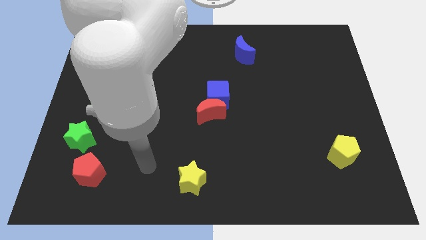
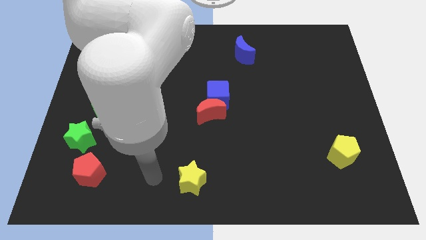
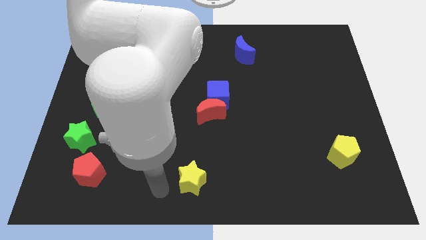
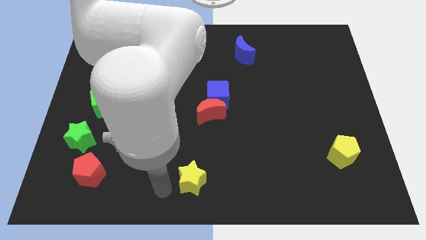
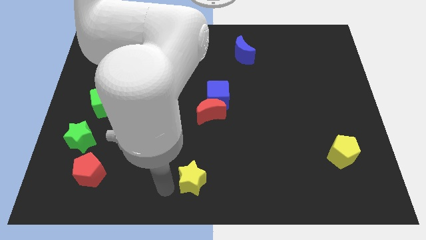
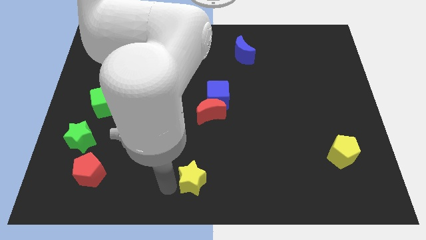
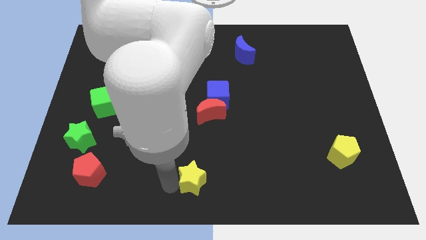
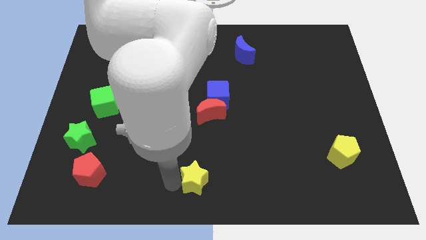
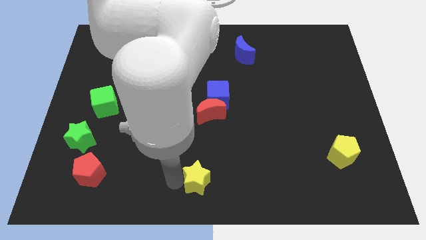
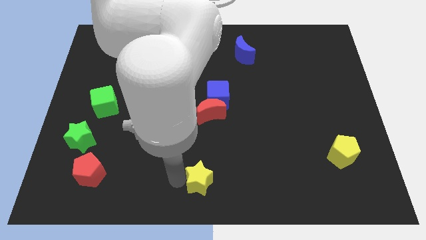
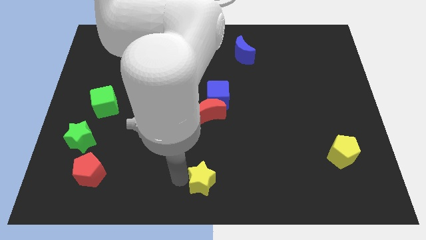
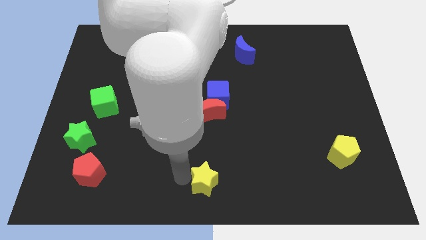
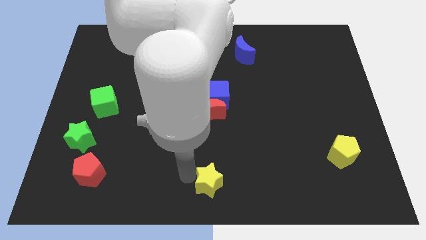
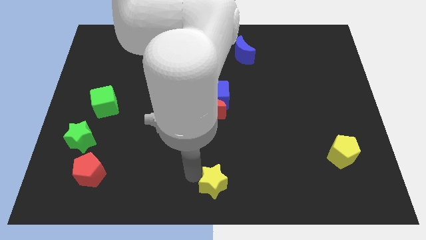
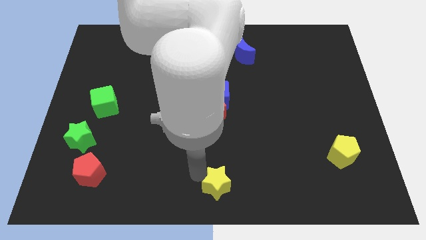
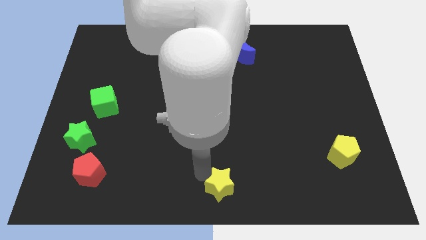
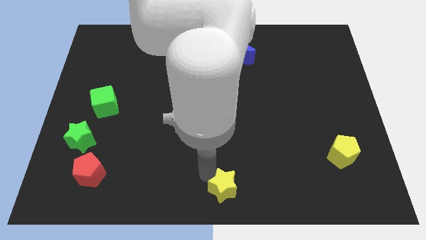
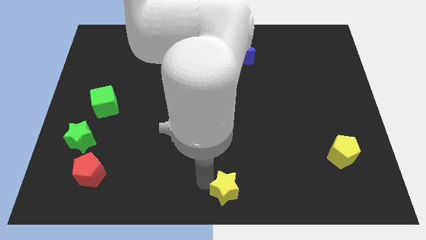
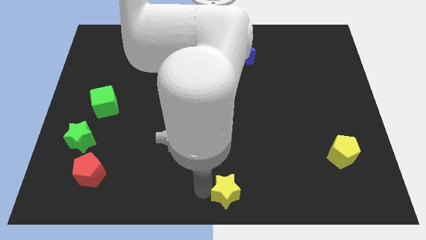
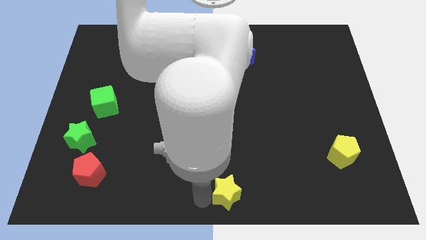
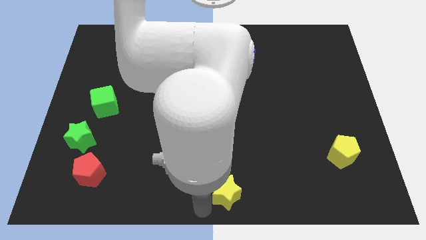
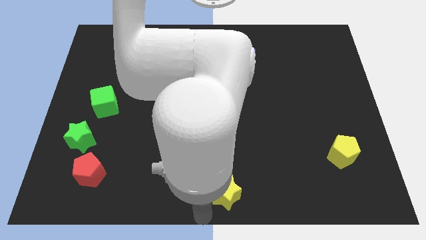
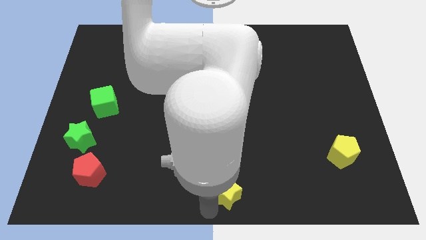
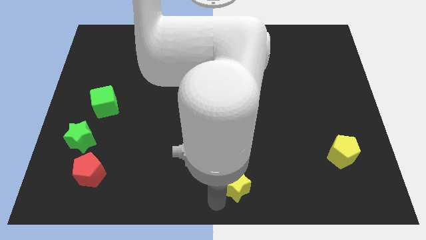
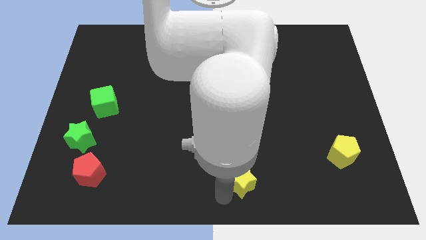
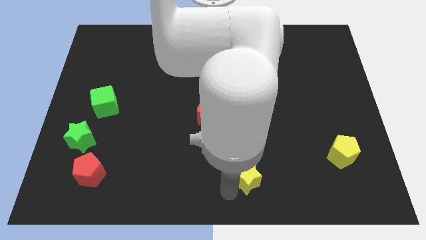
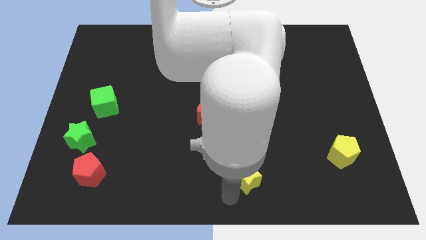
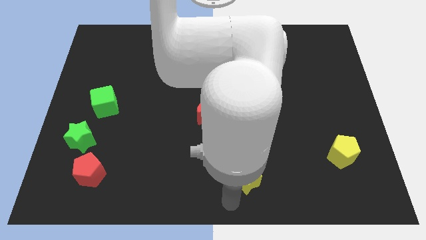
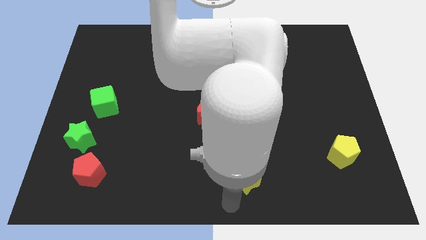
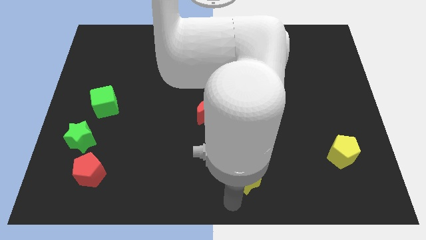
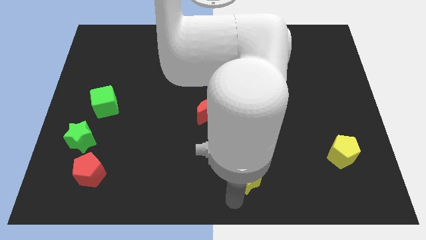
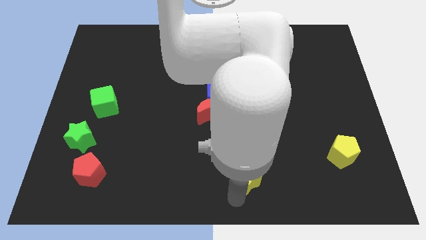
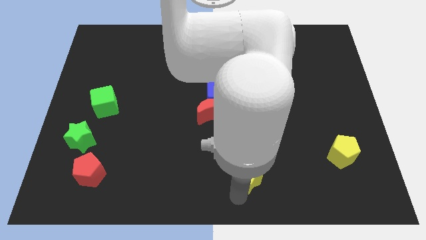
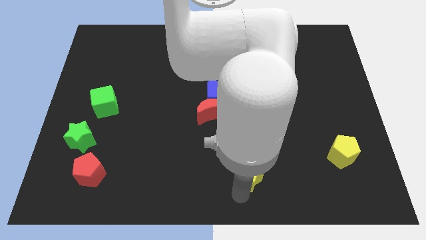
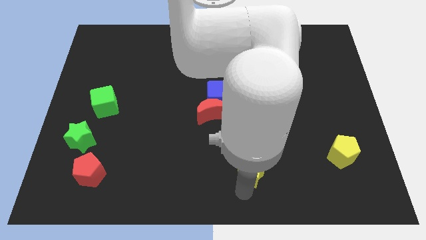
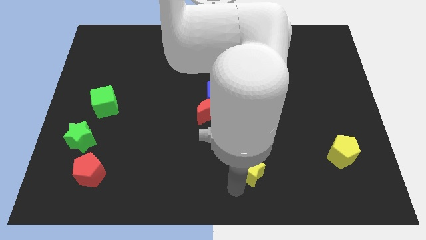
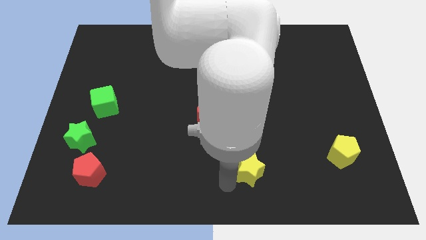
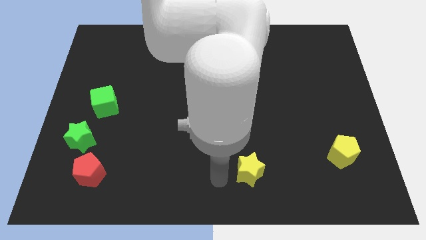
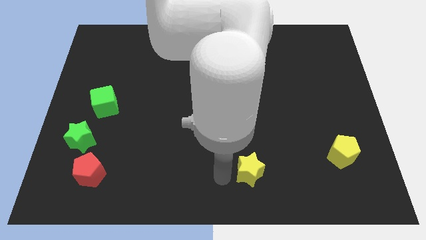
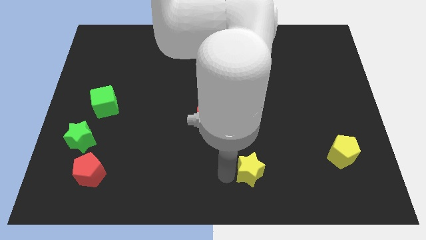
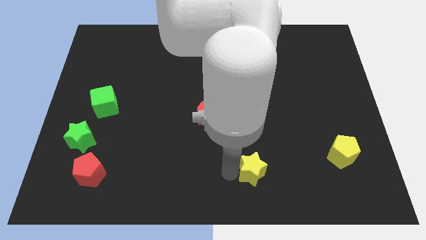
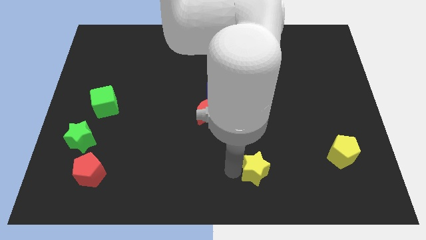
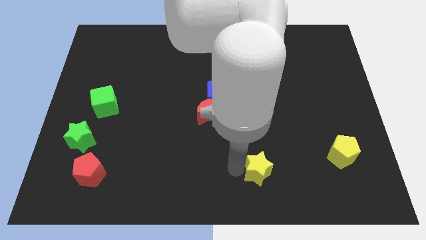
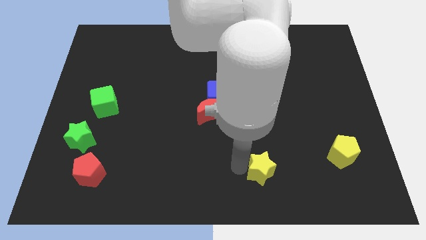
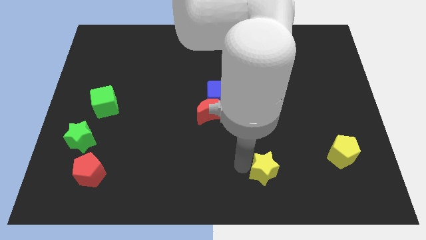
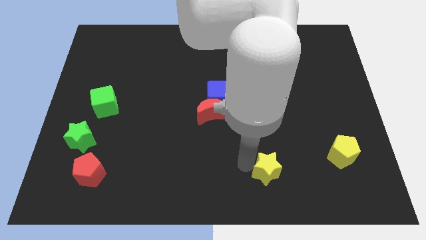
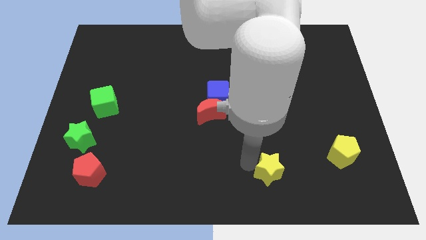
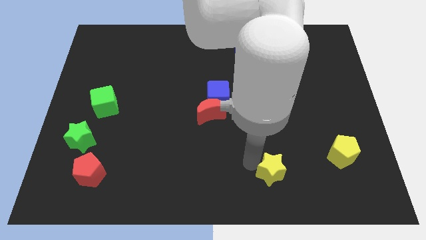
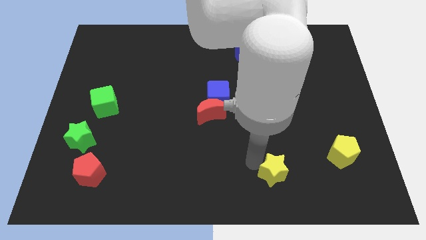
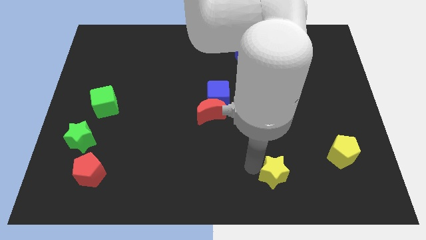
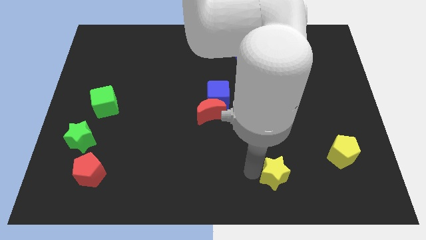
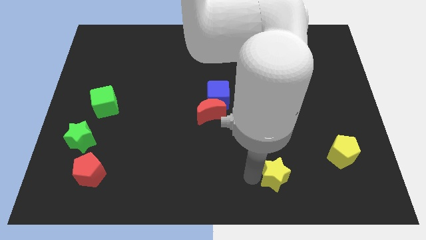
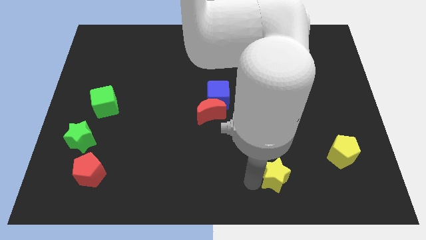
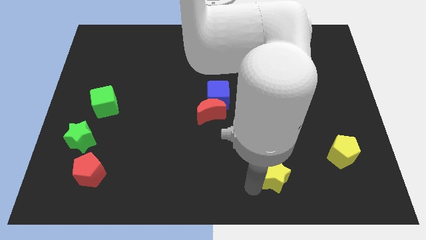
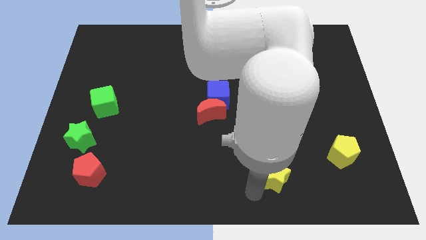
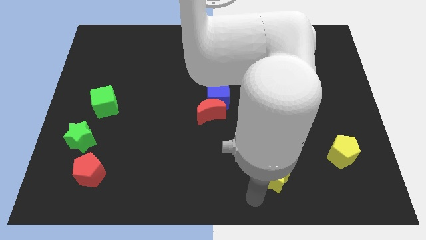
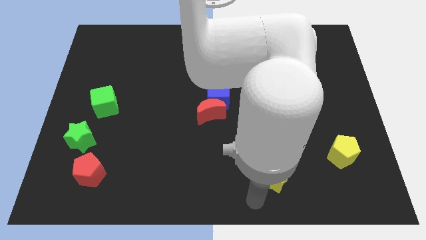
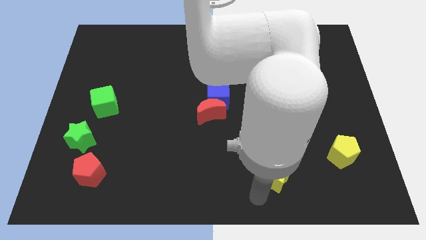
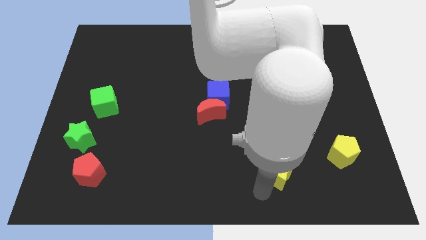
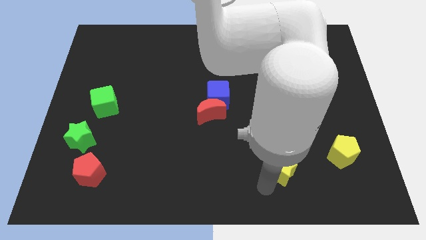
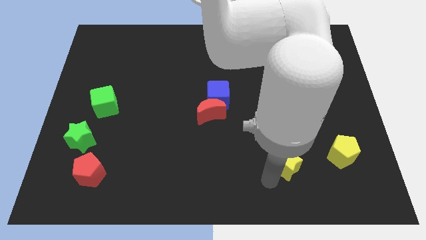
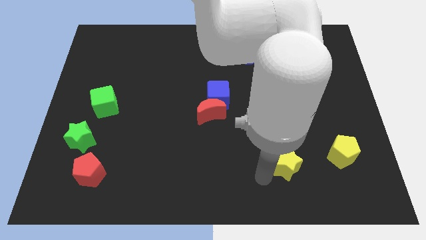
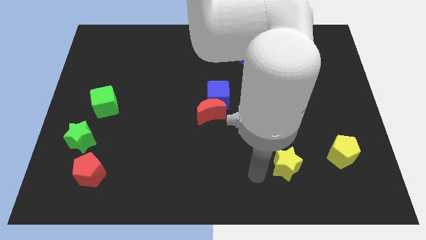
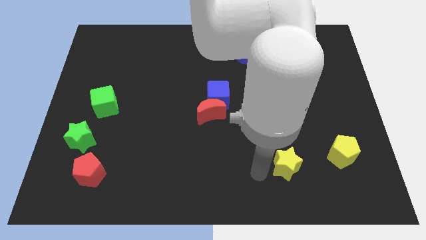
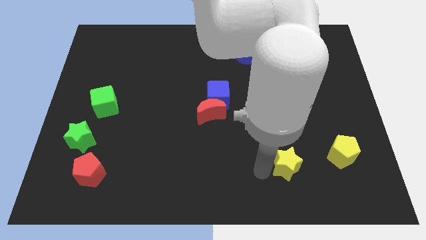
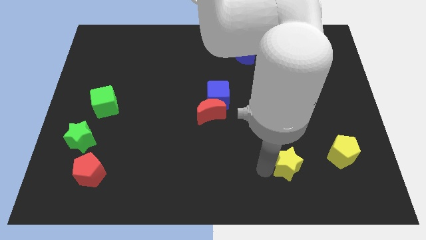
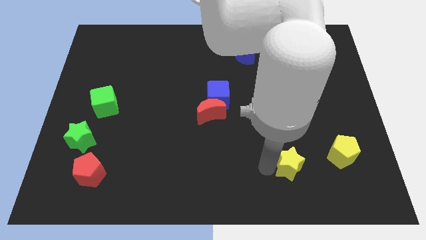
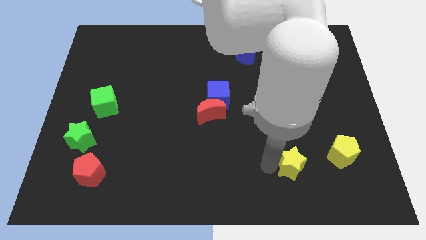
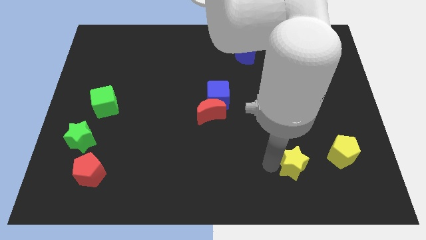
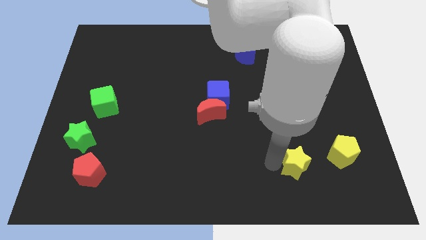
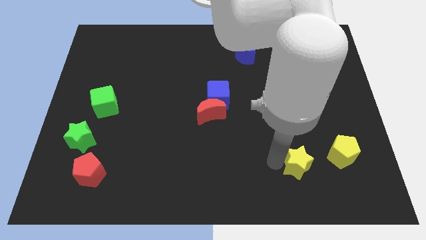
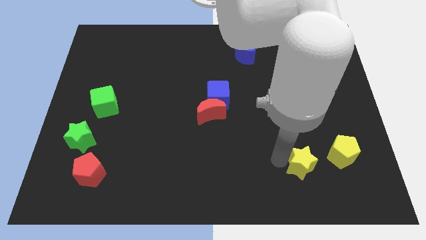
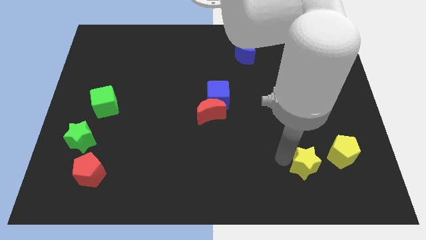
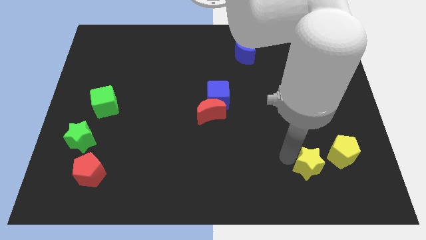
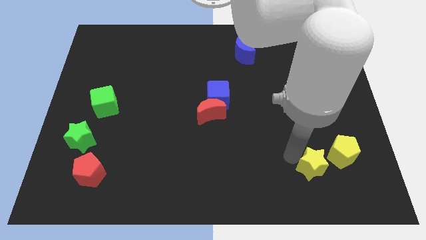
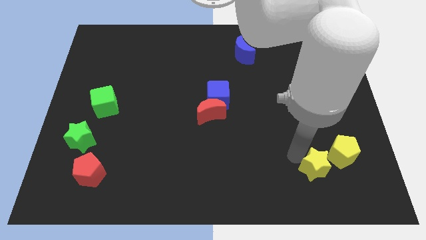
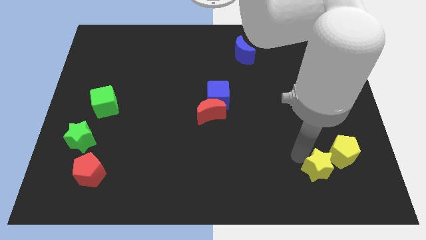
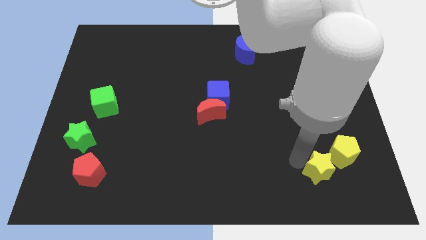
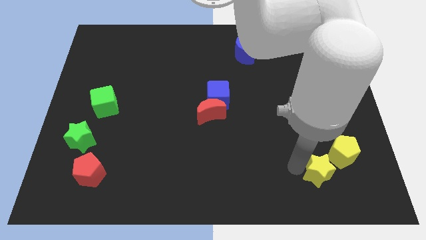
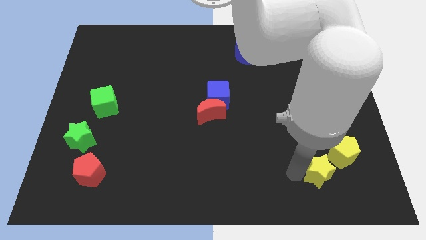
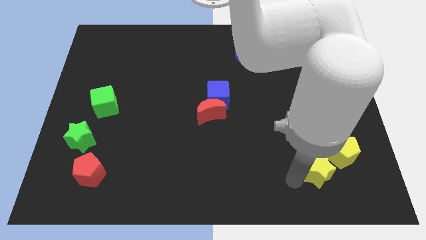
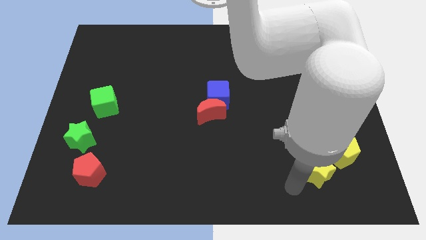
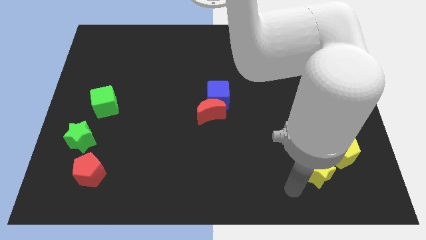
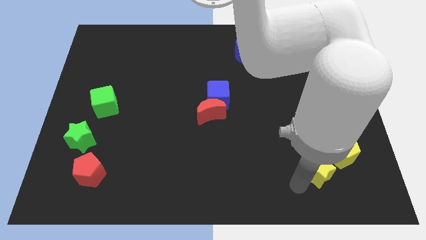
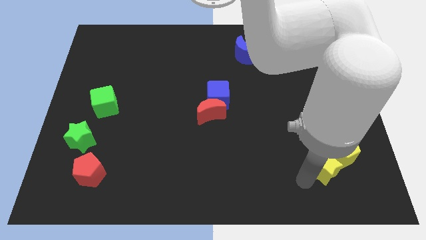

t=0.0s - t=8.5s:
put the yellow star towards the yellow pentagon
